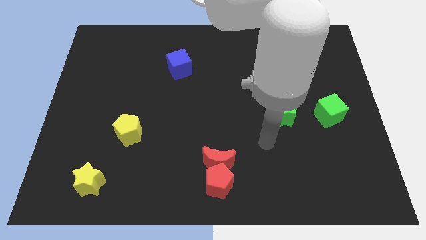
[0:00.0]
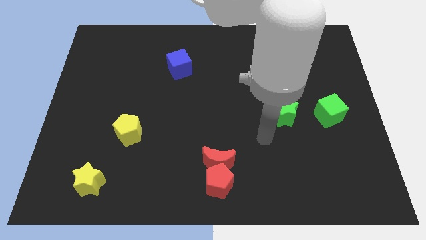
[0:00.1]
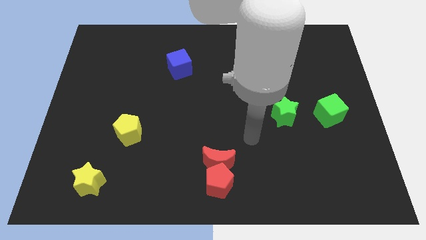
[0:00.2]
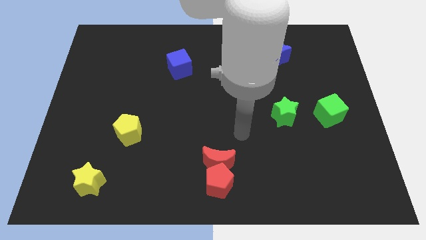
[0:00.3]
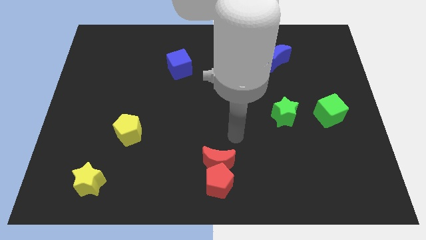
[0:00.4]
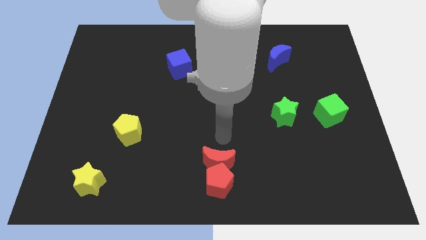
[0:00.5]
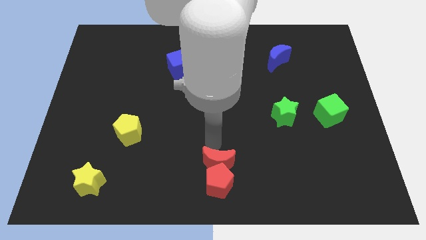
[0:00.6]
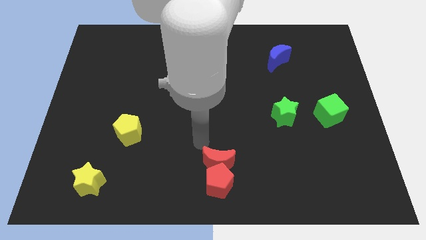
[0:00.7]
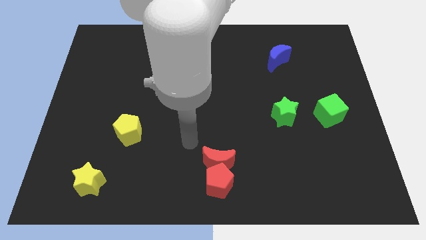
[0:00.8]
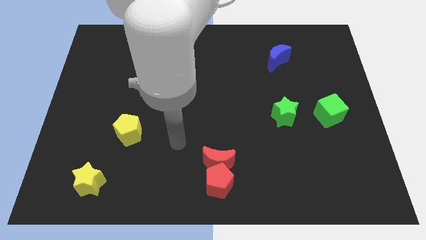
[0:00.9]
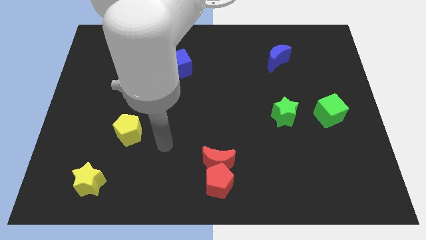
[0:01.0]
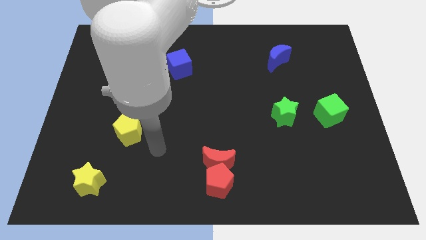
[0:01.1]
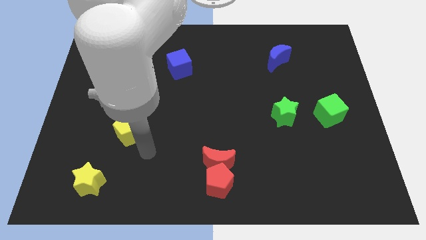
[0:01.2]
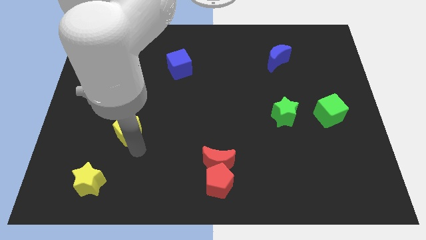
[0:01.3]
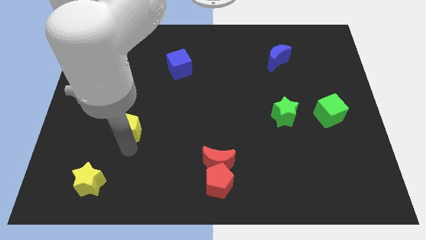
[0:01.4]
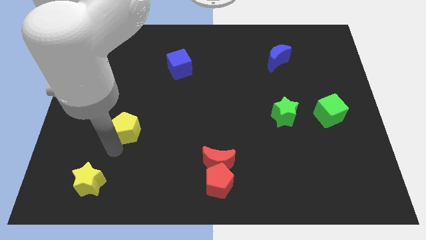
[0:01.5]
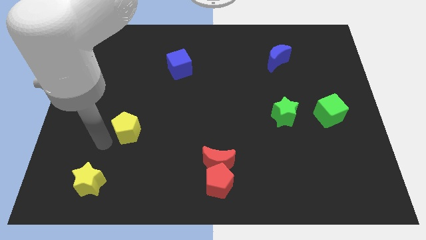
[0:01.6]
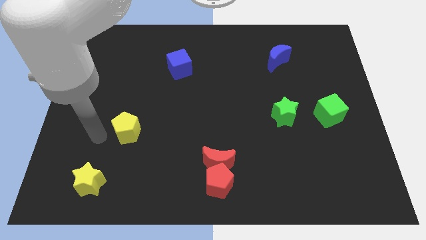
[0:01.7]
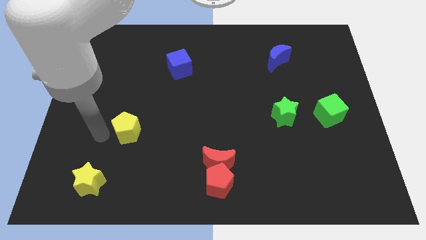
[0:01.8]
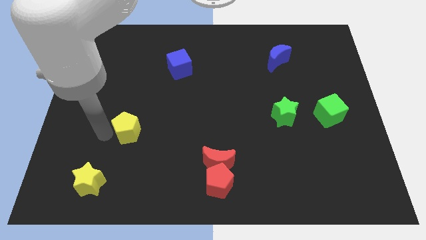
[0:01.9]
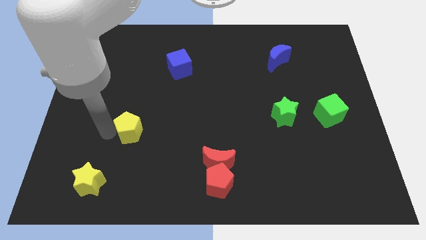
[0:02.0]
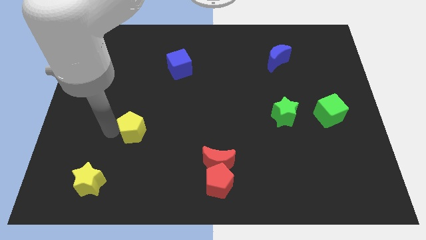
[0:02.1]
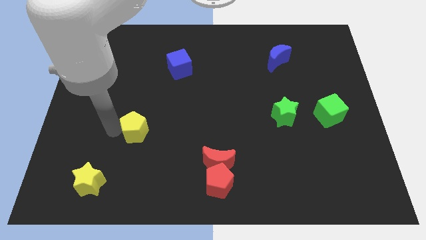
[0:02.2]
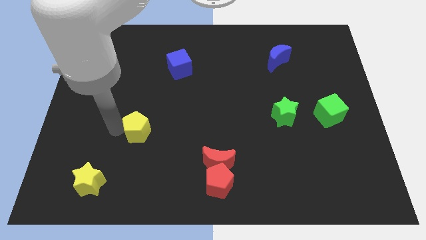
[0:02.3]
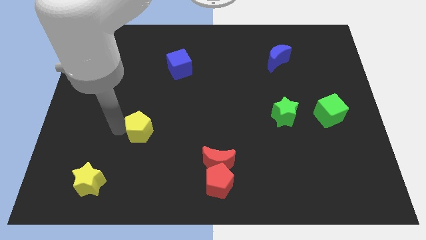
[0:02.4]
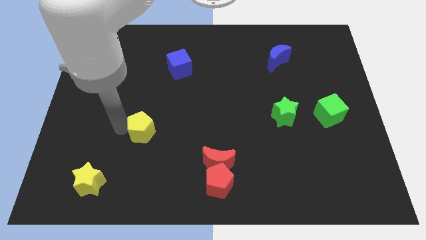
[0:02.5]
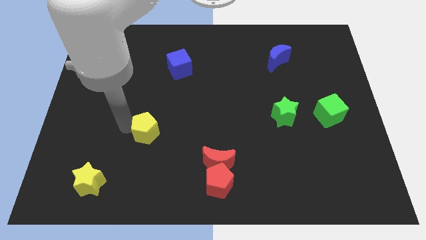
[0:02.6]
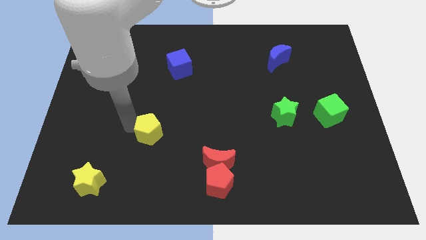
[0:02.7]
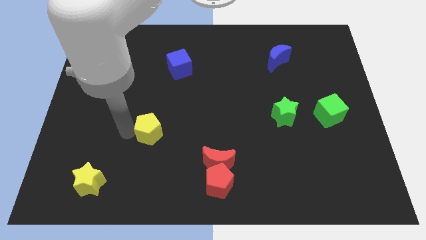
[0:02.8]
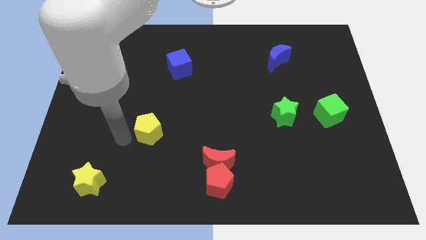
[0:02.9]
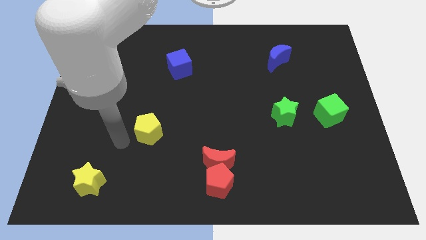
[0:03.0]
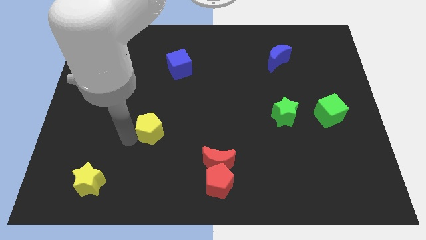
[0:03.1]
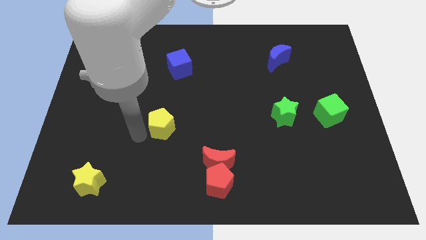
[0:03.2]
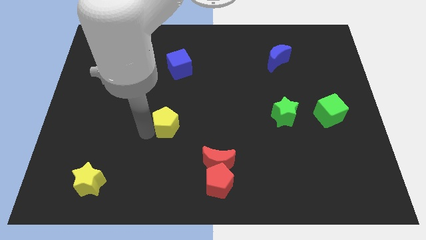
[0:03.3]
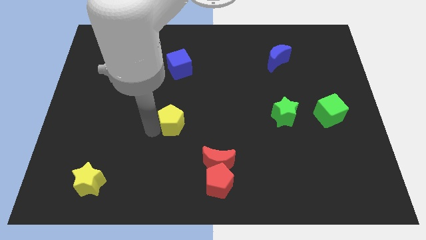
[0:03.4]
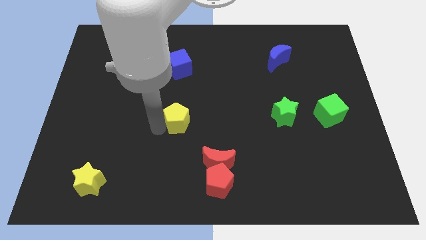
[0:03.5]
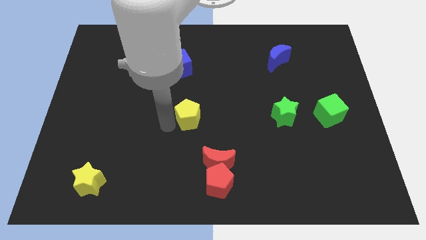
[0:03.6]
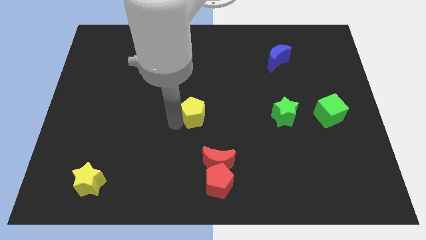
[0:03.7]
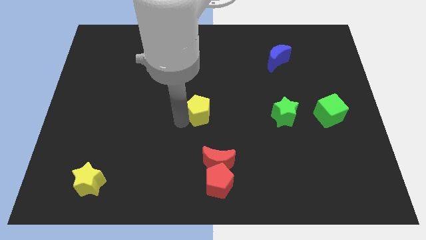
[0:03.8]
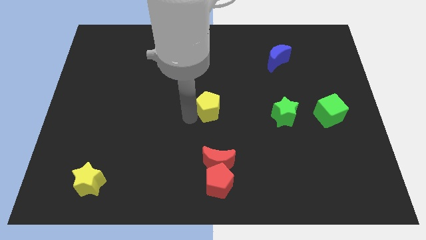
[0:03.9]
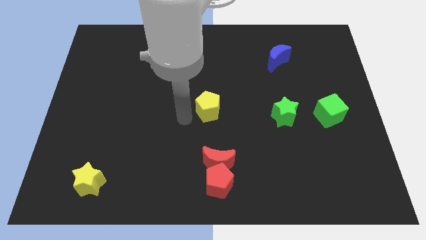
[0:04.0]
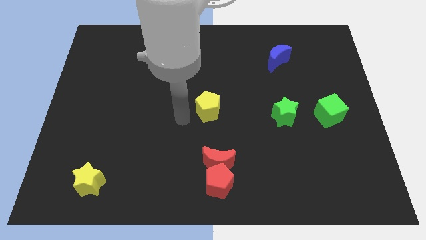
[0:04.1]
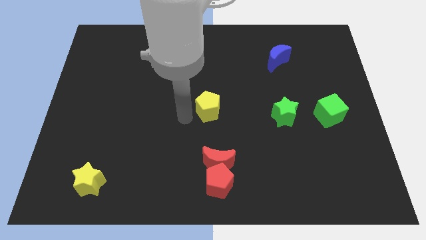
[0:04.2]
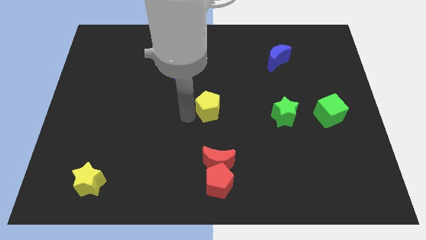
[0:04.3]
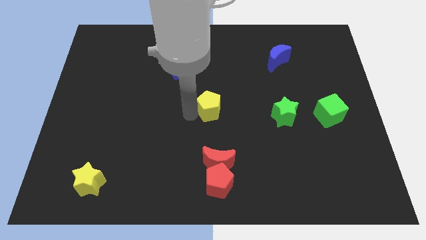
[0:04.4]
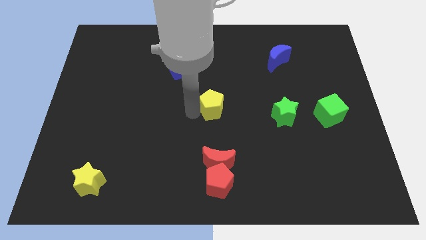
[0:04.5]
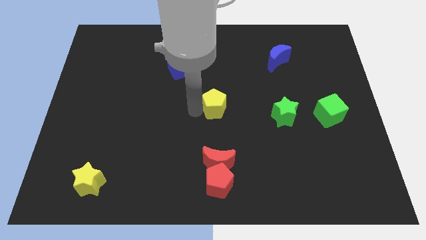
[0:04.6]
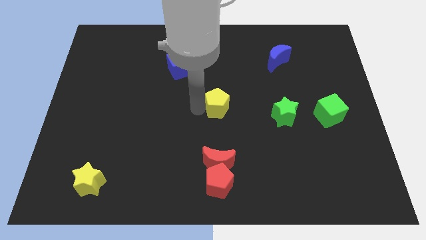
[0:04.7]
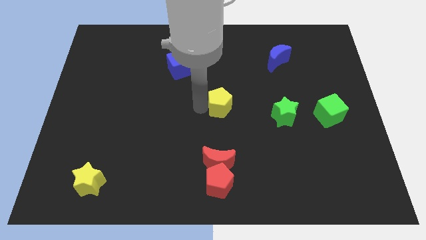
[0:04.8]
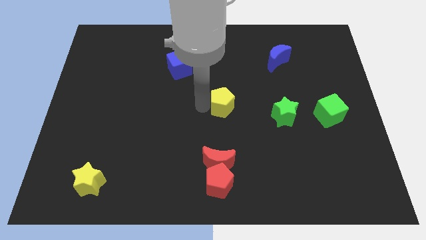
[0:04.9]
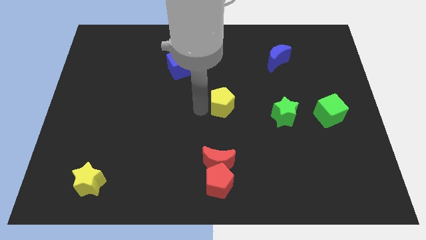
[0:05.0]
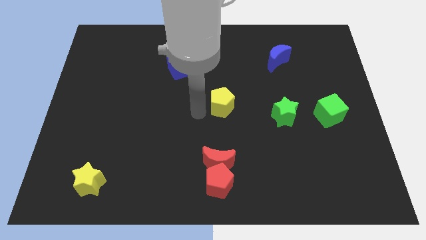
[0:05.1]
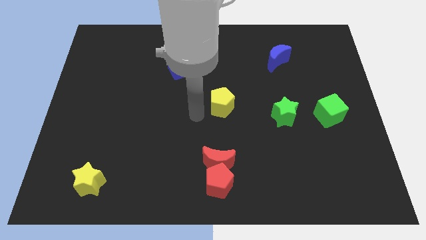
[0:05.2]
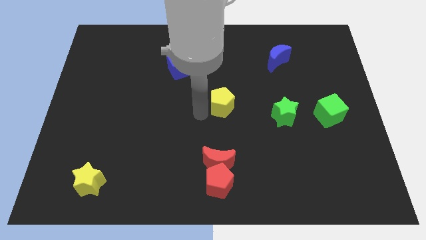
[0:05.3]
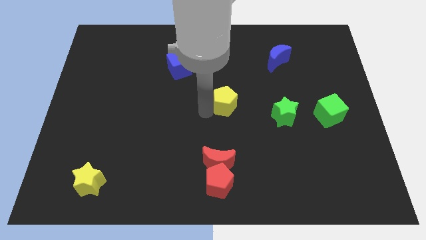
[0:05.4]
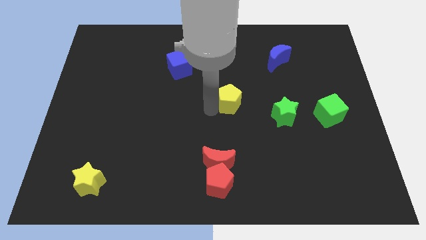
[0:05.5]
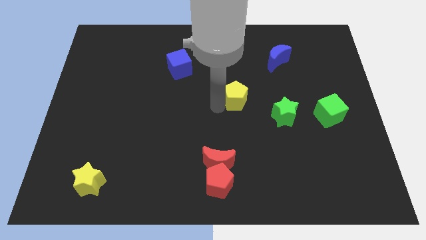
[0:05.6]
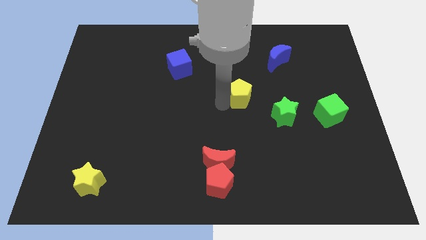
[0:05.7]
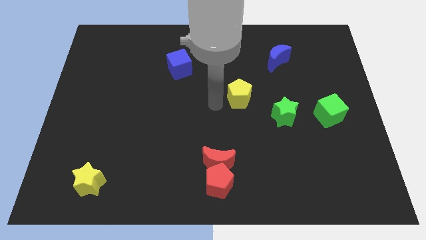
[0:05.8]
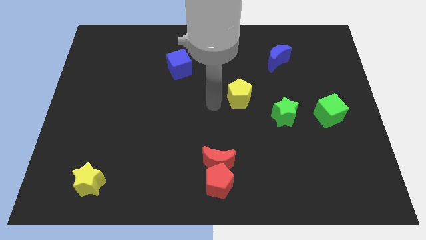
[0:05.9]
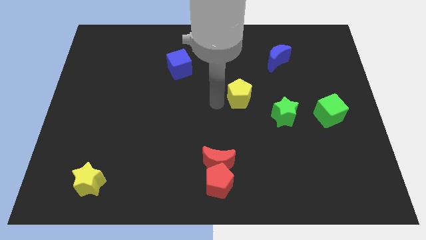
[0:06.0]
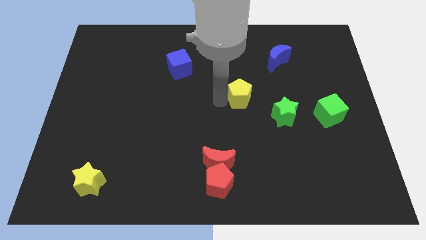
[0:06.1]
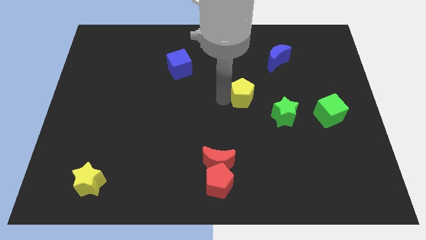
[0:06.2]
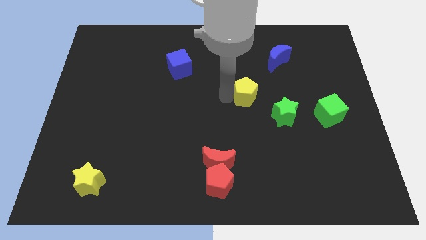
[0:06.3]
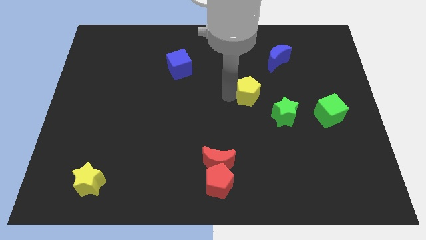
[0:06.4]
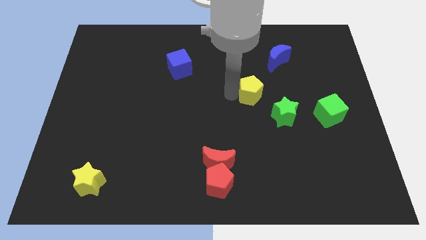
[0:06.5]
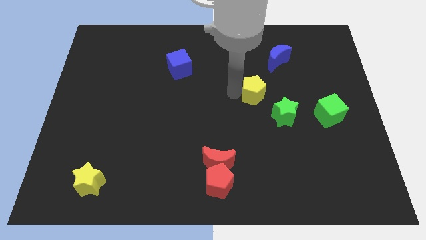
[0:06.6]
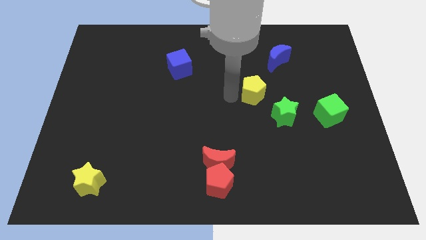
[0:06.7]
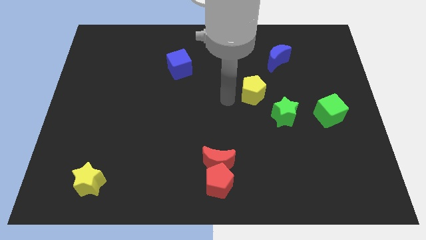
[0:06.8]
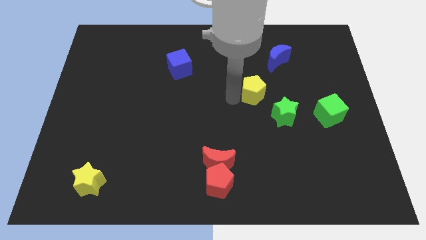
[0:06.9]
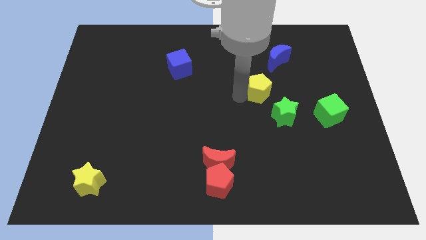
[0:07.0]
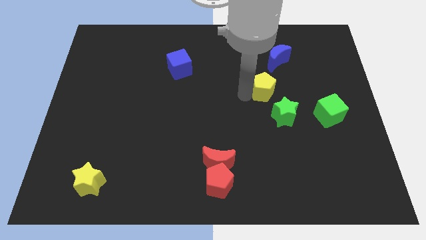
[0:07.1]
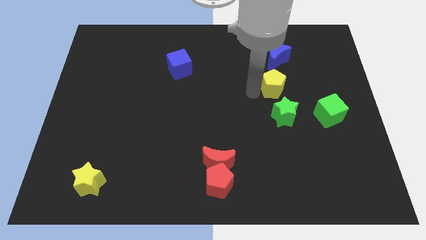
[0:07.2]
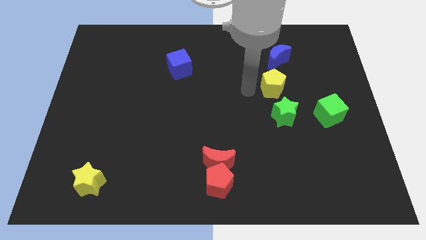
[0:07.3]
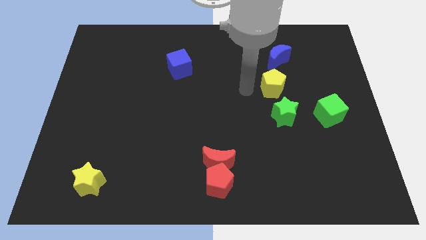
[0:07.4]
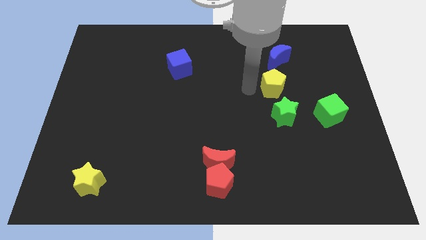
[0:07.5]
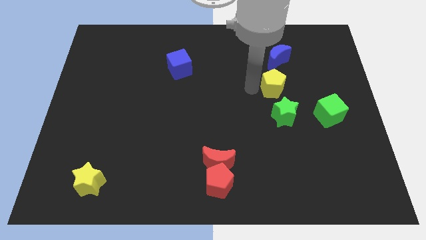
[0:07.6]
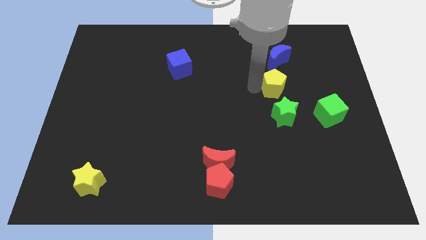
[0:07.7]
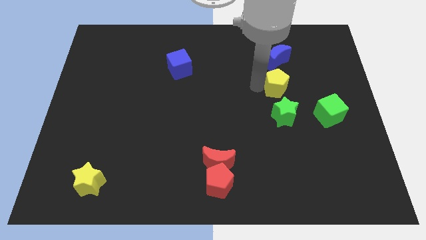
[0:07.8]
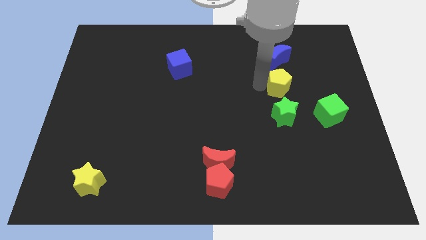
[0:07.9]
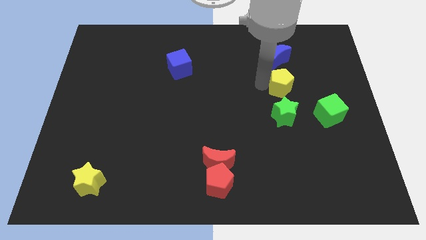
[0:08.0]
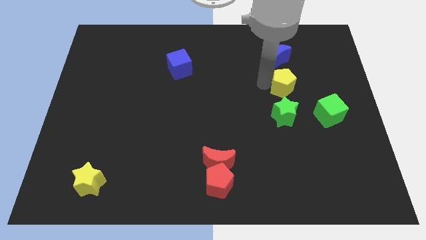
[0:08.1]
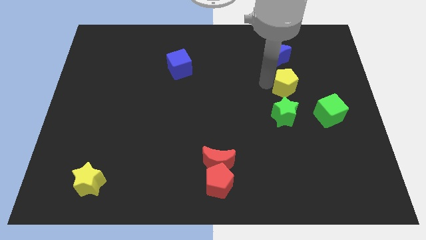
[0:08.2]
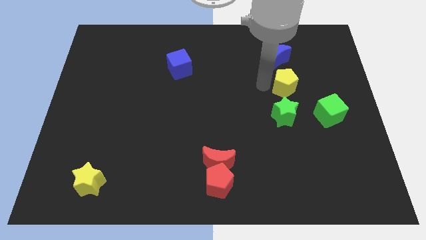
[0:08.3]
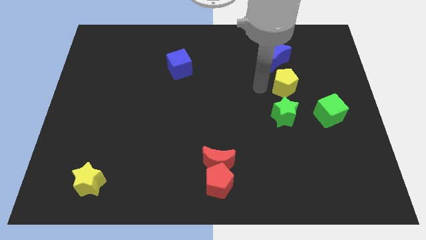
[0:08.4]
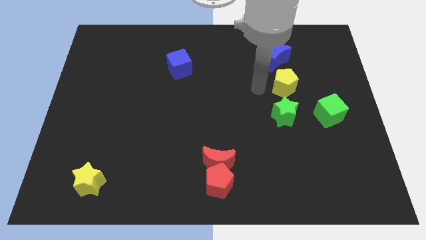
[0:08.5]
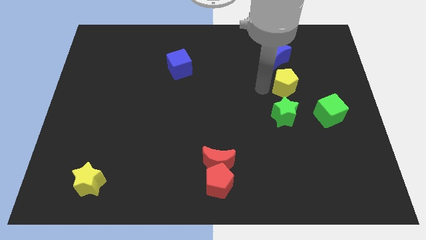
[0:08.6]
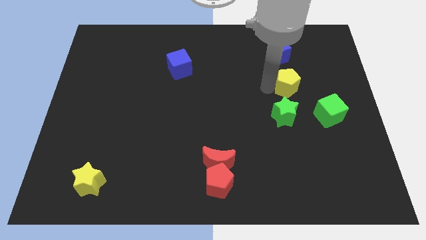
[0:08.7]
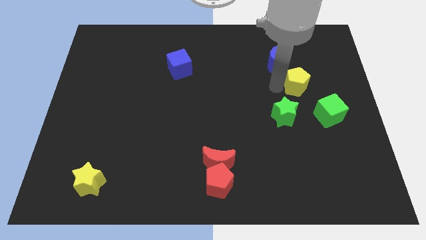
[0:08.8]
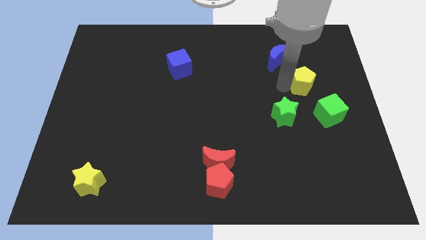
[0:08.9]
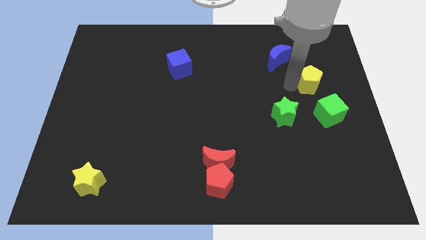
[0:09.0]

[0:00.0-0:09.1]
move the yellow pentagon to the top side of the green cube
